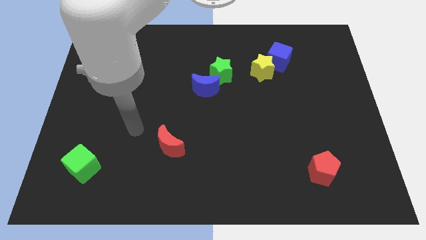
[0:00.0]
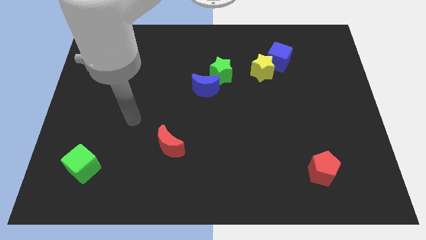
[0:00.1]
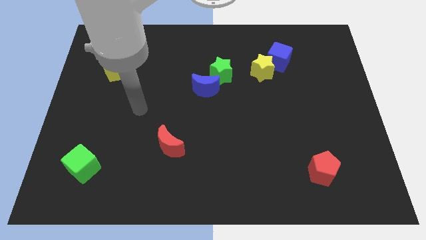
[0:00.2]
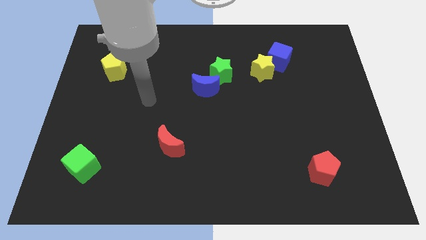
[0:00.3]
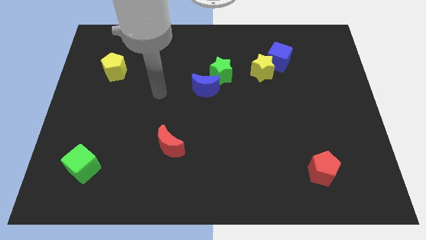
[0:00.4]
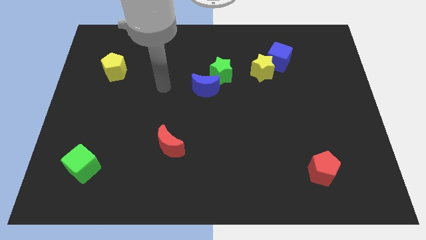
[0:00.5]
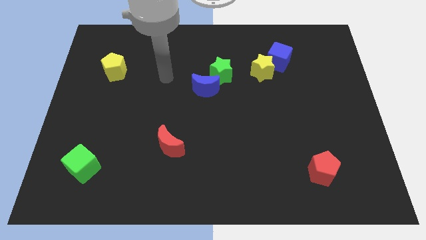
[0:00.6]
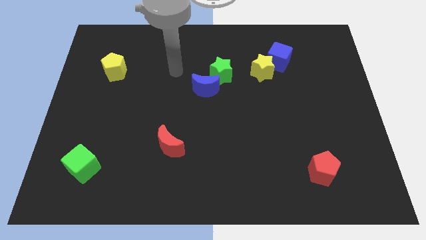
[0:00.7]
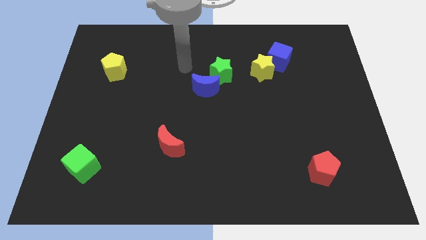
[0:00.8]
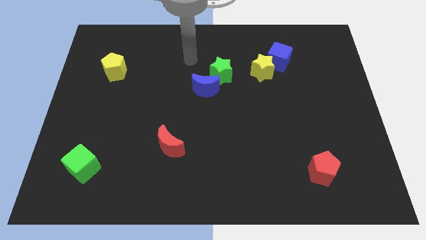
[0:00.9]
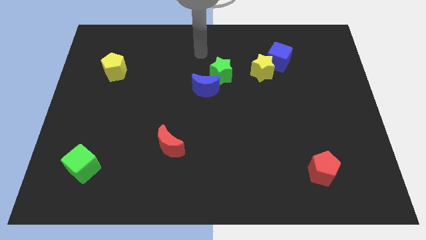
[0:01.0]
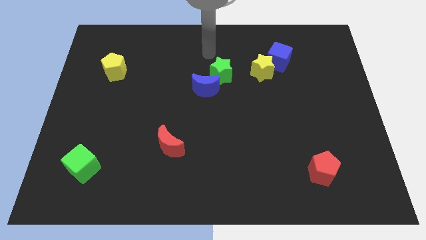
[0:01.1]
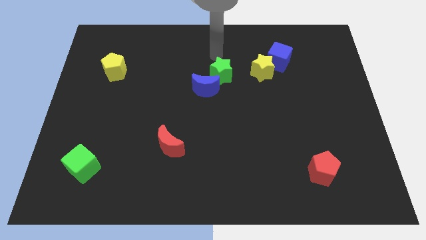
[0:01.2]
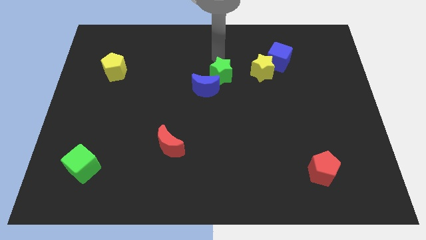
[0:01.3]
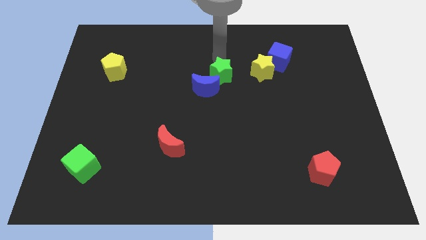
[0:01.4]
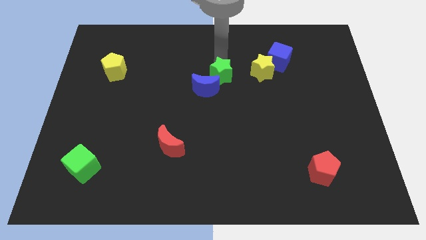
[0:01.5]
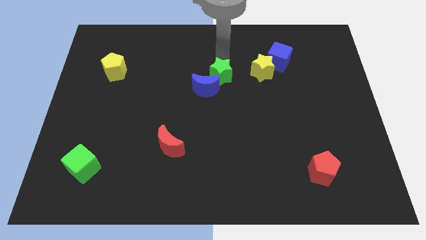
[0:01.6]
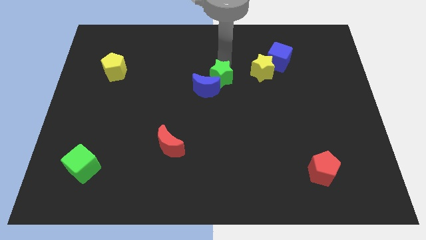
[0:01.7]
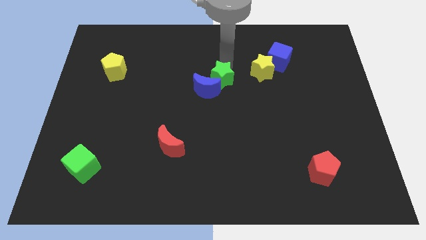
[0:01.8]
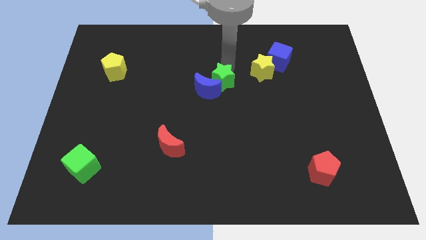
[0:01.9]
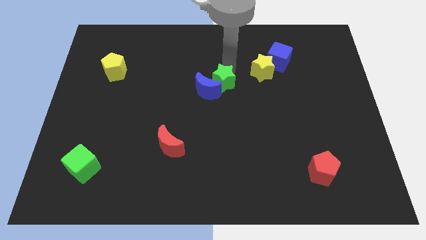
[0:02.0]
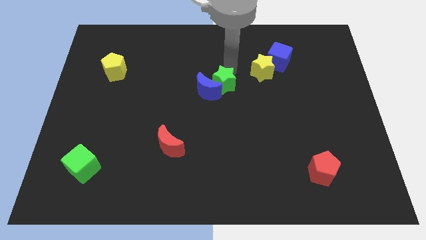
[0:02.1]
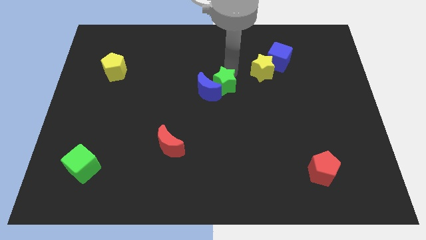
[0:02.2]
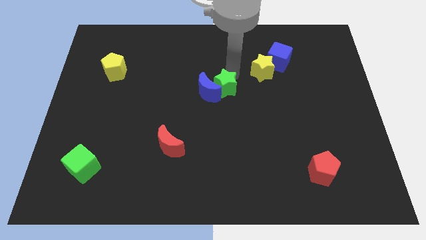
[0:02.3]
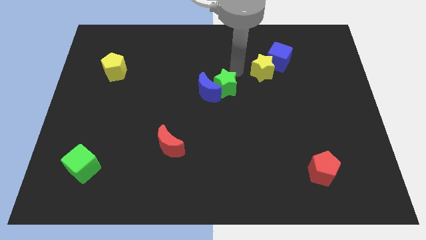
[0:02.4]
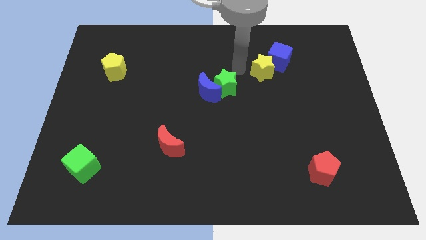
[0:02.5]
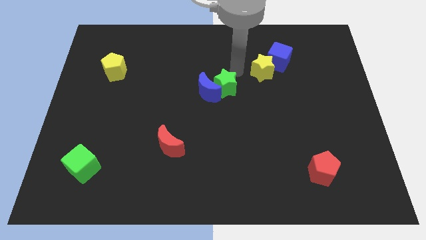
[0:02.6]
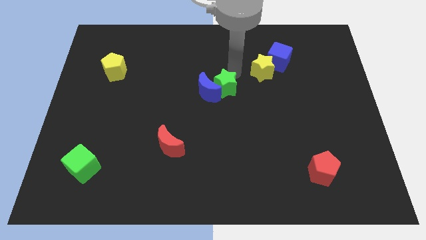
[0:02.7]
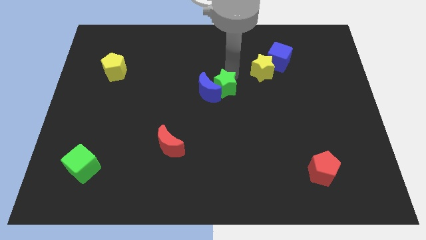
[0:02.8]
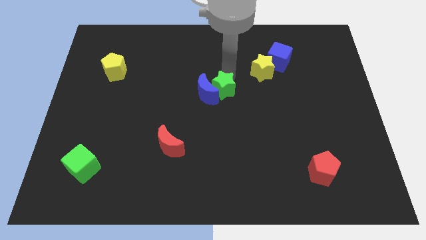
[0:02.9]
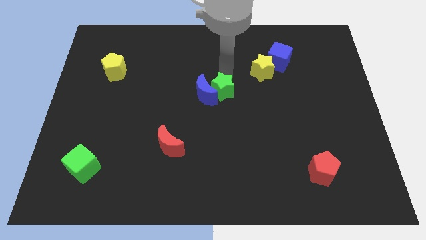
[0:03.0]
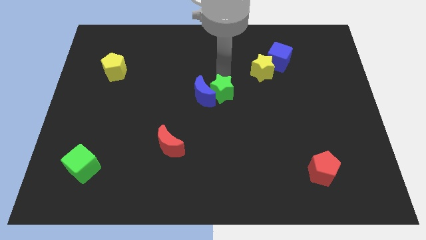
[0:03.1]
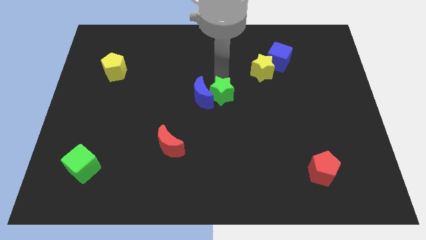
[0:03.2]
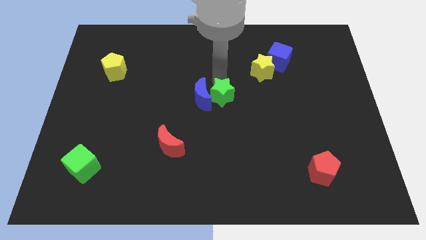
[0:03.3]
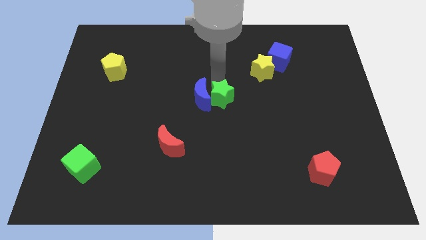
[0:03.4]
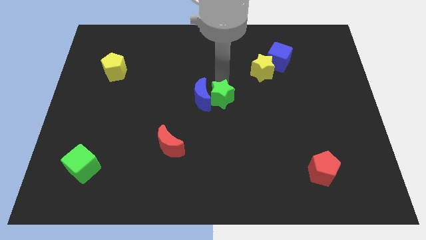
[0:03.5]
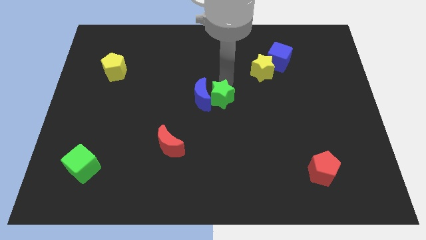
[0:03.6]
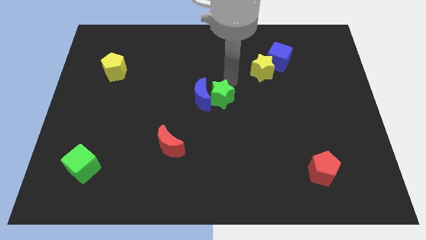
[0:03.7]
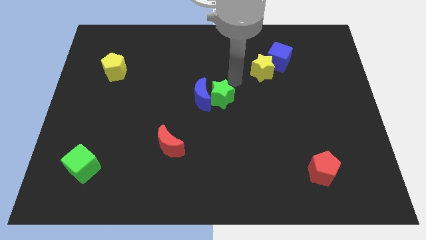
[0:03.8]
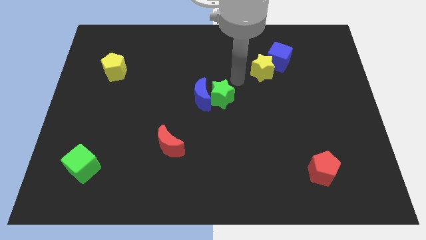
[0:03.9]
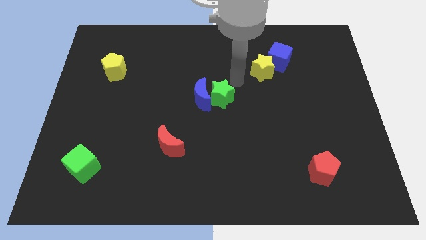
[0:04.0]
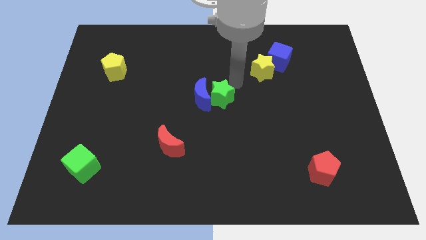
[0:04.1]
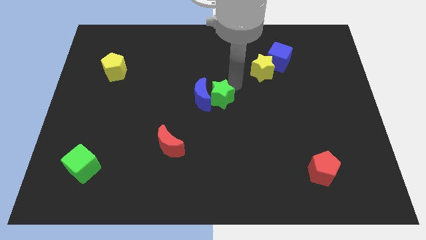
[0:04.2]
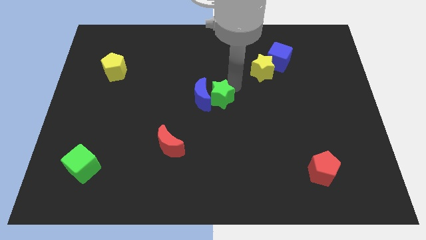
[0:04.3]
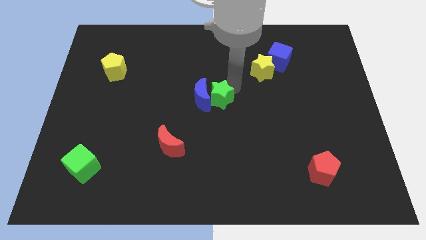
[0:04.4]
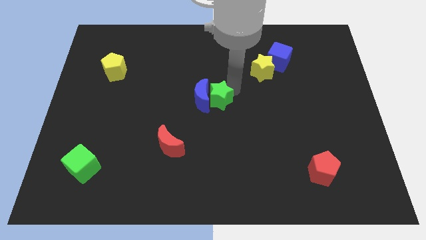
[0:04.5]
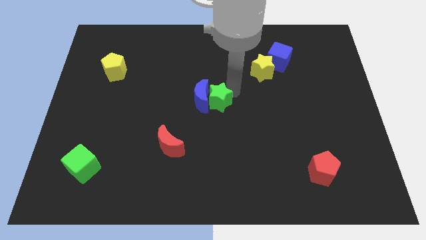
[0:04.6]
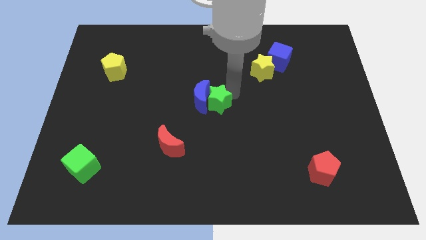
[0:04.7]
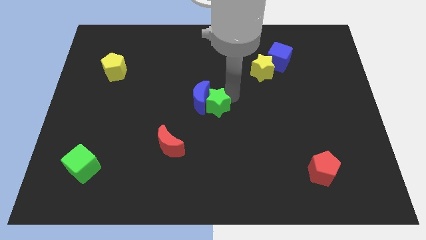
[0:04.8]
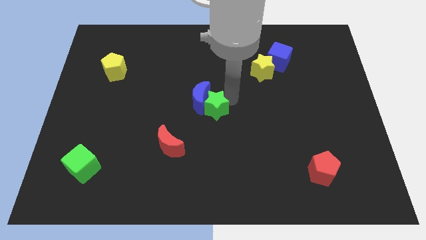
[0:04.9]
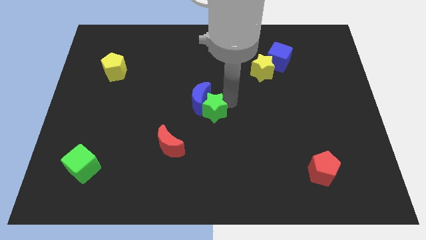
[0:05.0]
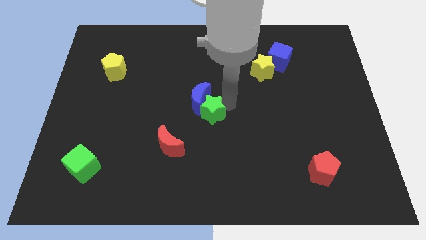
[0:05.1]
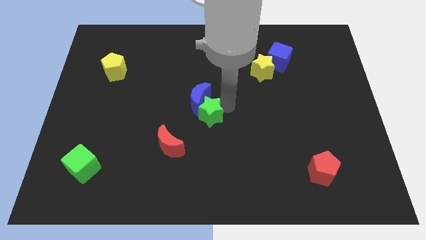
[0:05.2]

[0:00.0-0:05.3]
push the green star to the top right side of the red moon

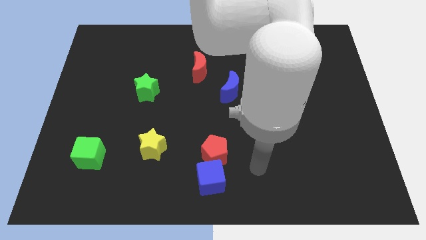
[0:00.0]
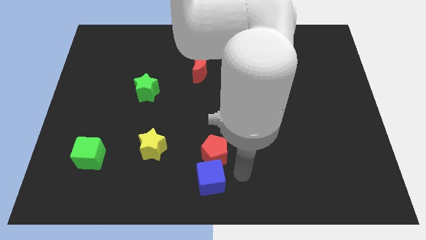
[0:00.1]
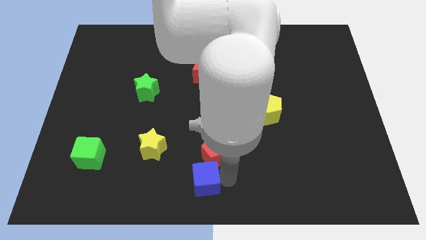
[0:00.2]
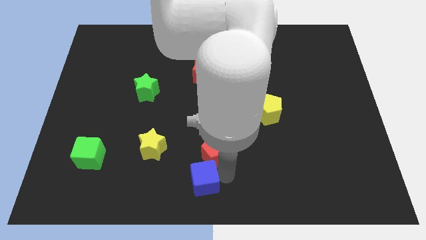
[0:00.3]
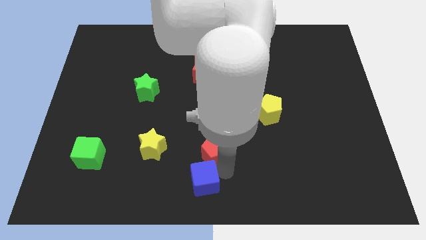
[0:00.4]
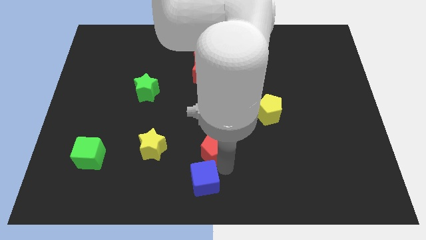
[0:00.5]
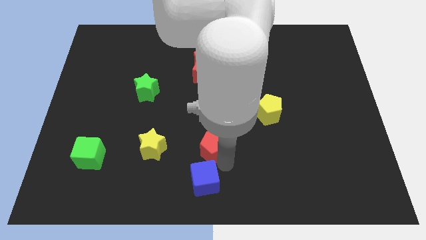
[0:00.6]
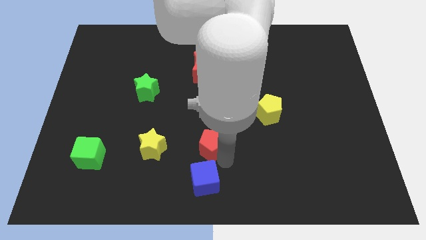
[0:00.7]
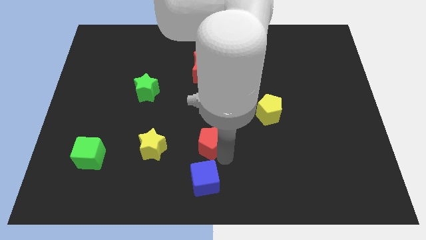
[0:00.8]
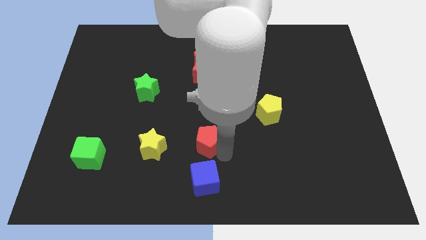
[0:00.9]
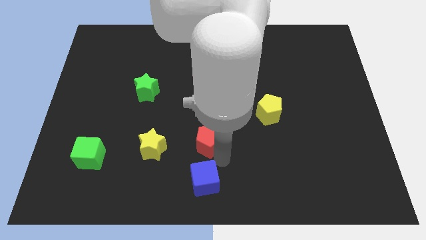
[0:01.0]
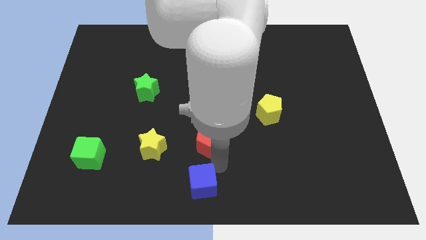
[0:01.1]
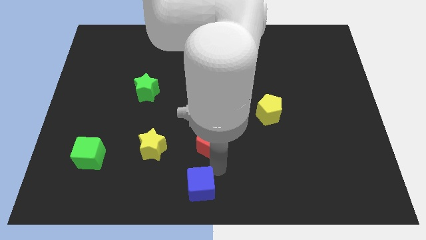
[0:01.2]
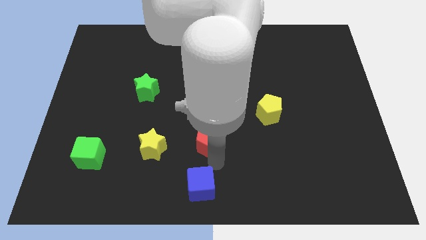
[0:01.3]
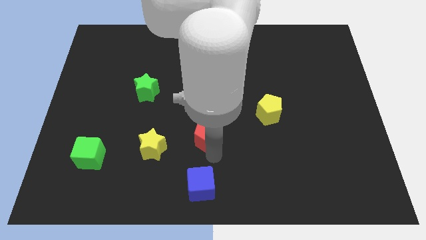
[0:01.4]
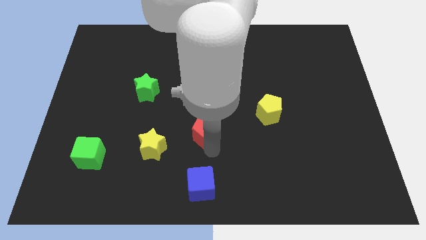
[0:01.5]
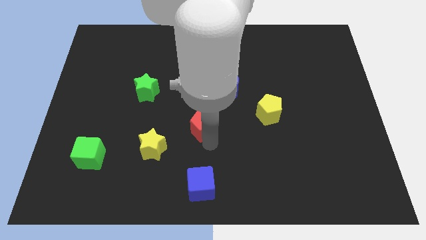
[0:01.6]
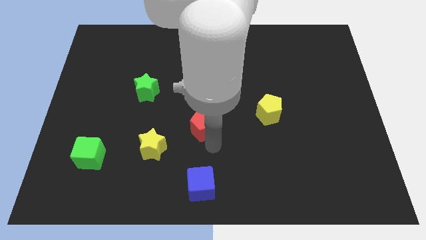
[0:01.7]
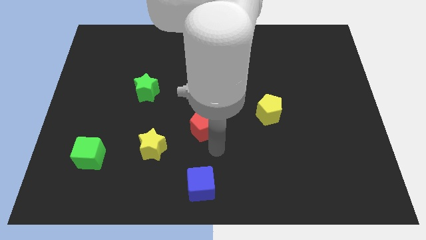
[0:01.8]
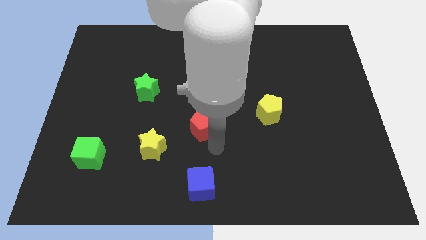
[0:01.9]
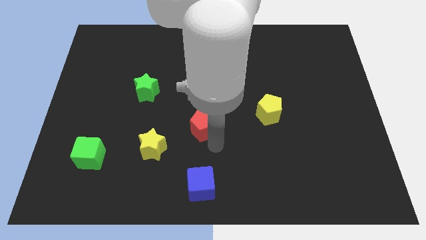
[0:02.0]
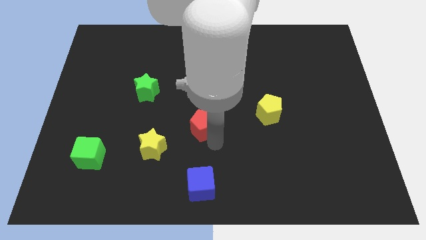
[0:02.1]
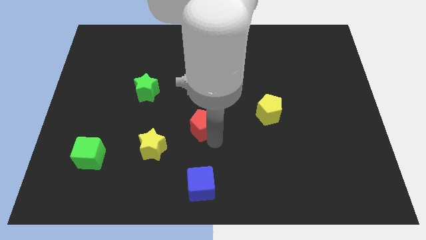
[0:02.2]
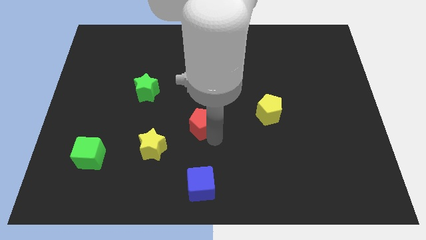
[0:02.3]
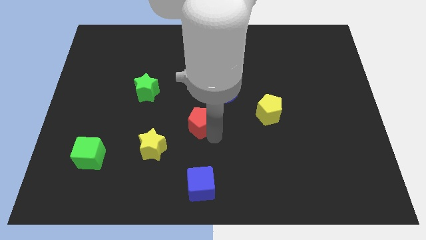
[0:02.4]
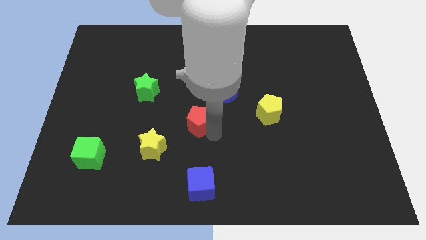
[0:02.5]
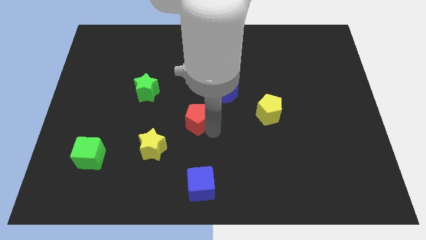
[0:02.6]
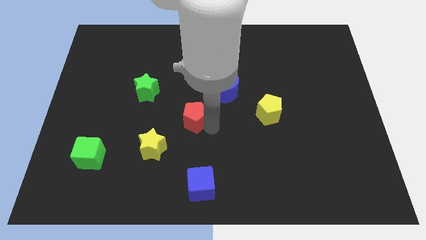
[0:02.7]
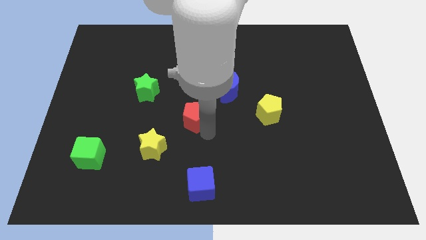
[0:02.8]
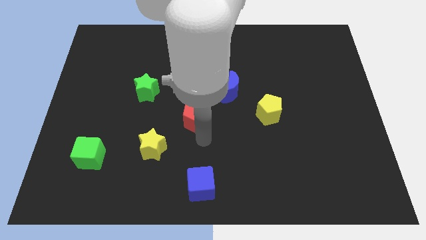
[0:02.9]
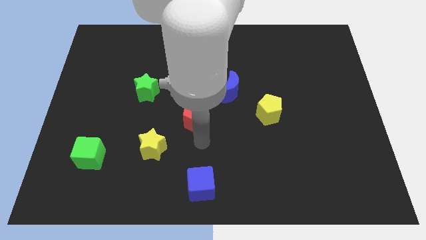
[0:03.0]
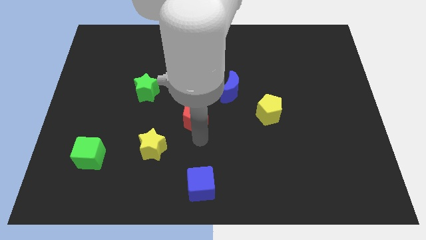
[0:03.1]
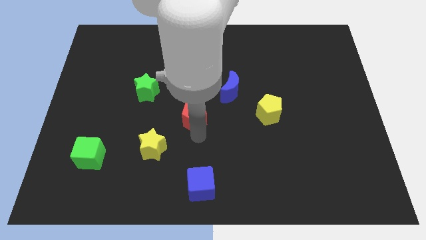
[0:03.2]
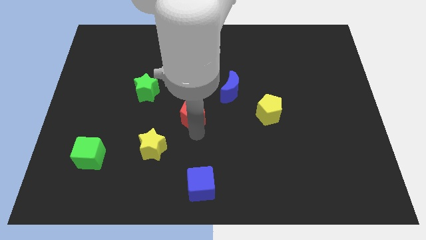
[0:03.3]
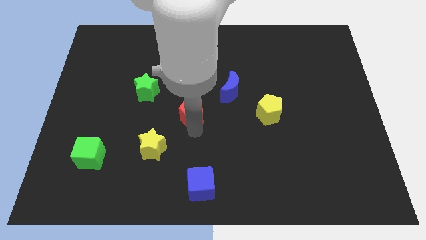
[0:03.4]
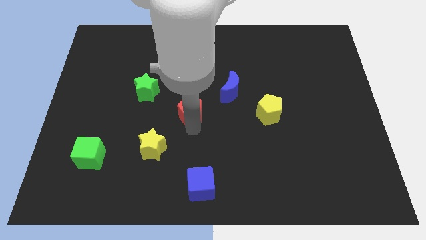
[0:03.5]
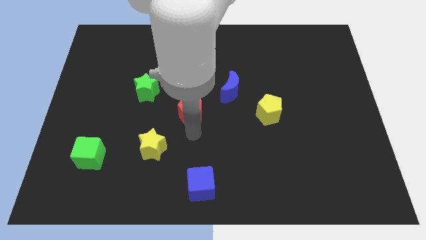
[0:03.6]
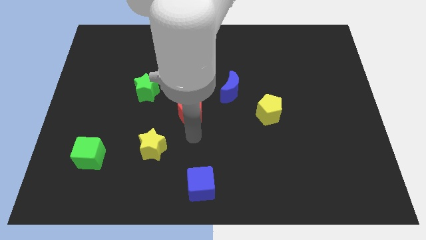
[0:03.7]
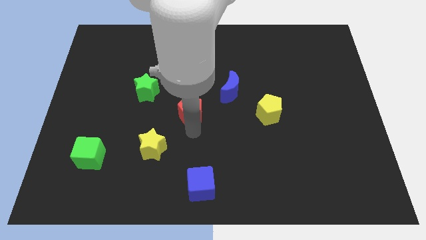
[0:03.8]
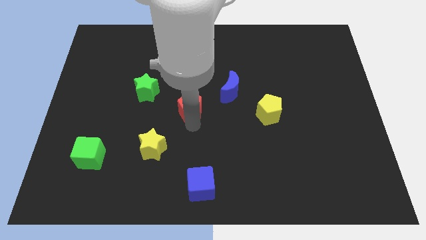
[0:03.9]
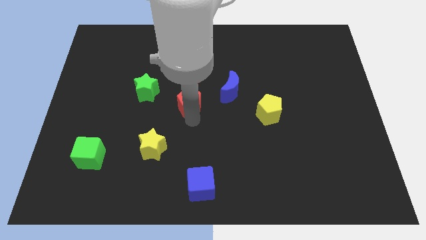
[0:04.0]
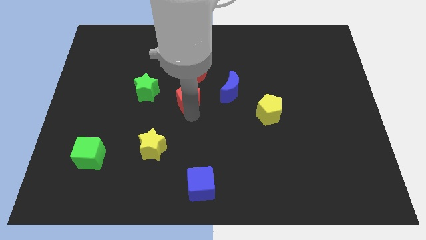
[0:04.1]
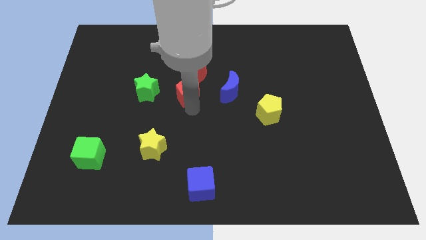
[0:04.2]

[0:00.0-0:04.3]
move the red pentagon to the bottom left of the red moon
